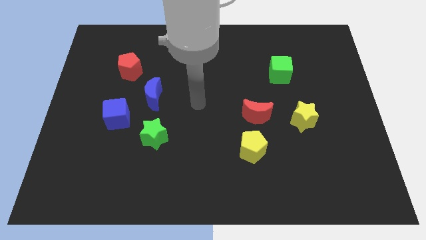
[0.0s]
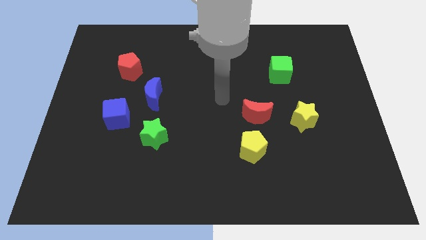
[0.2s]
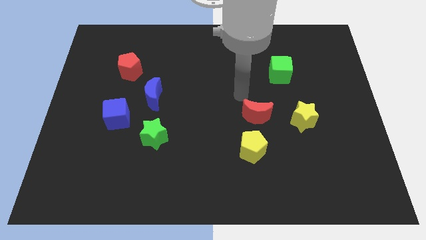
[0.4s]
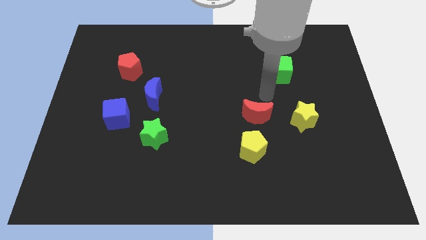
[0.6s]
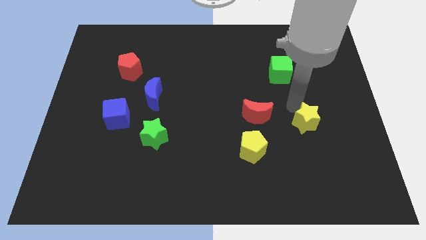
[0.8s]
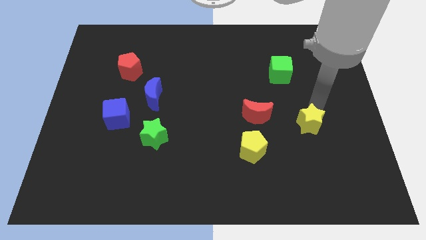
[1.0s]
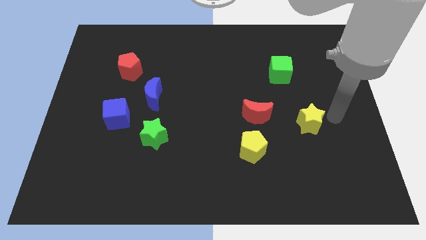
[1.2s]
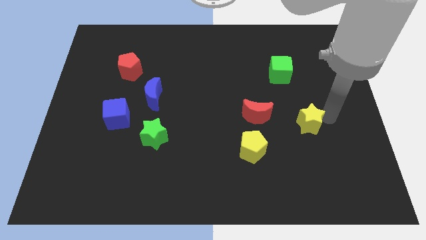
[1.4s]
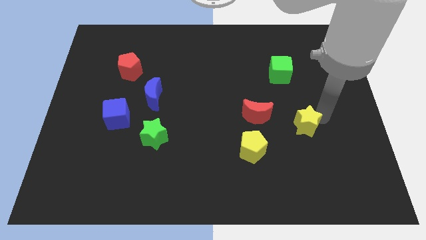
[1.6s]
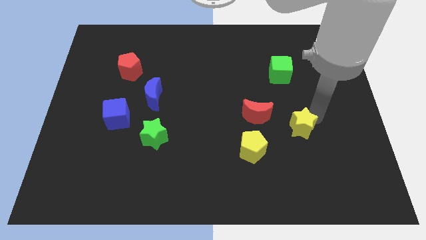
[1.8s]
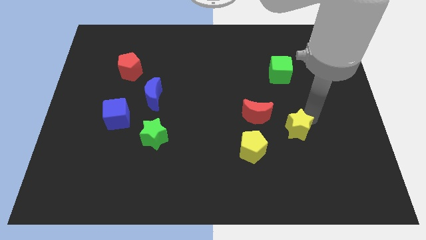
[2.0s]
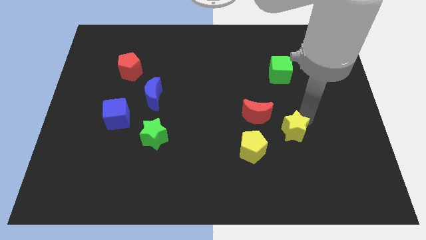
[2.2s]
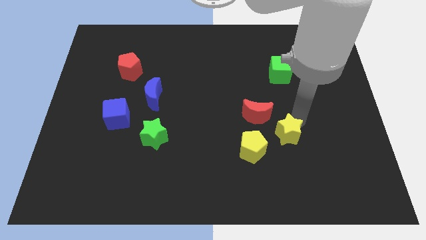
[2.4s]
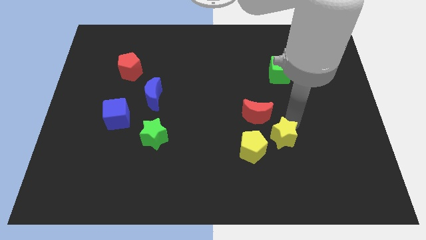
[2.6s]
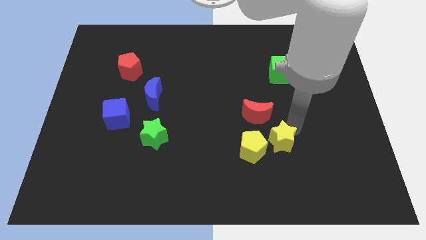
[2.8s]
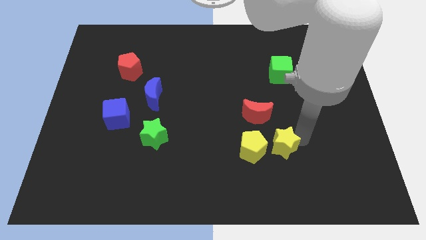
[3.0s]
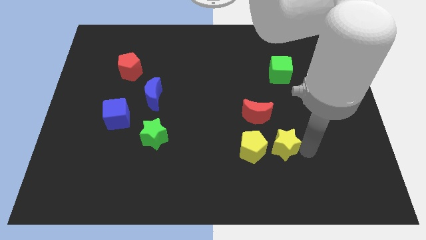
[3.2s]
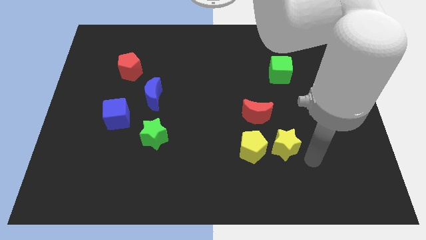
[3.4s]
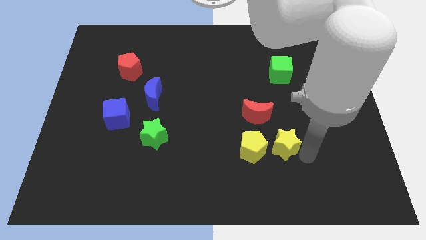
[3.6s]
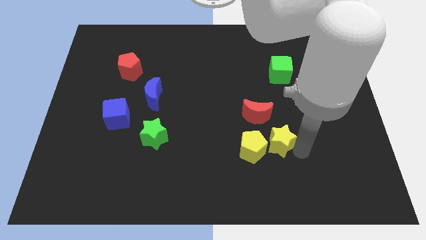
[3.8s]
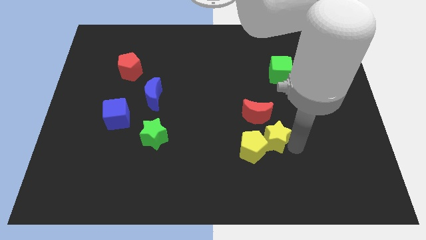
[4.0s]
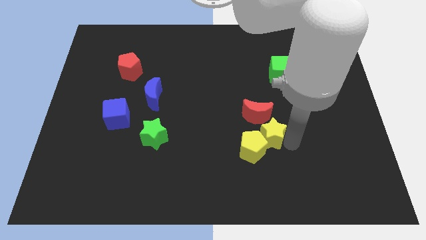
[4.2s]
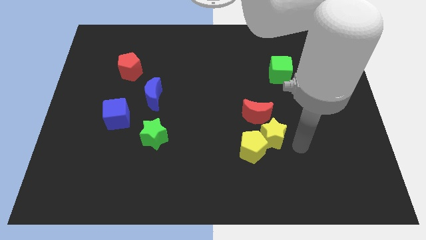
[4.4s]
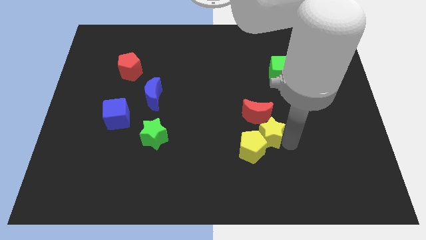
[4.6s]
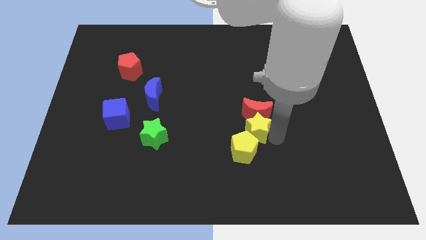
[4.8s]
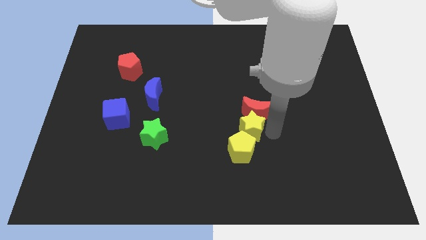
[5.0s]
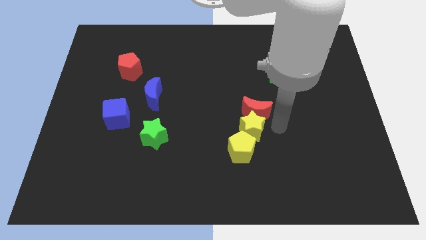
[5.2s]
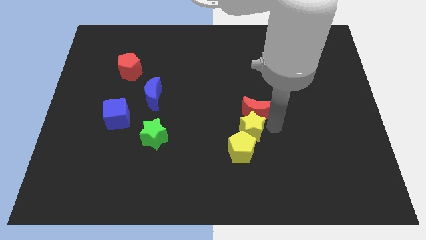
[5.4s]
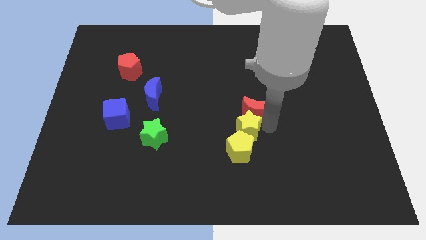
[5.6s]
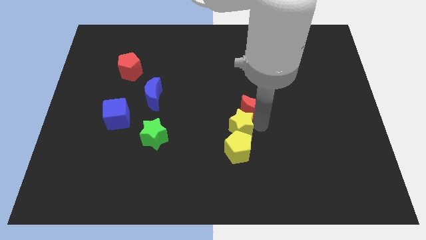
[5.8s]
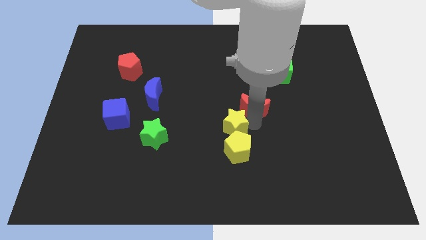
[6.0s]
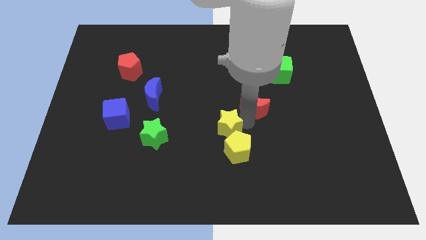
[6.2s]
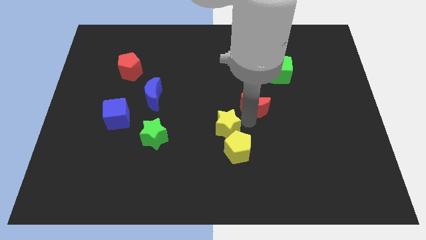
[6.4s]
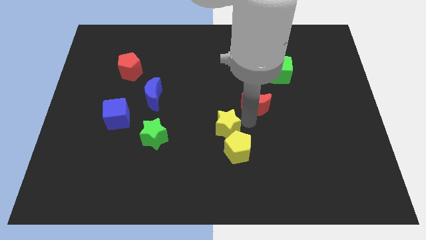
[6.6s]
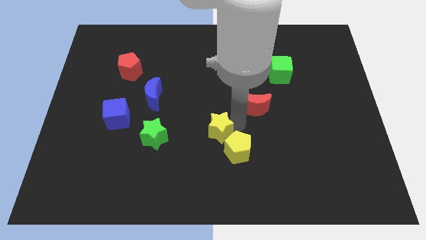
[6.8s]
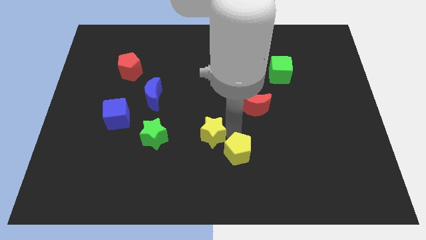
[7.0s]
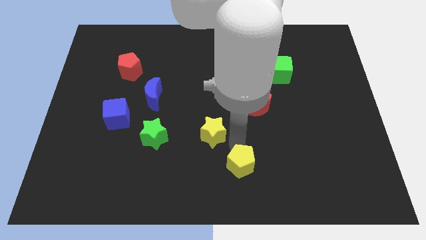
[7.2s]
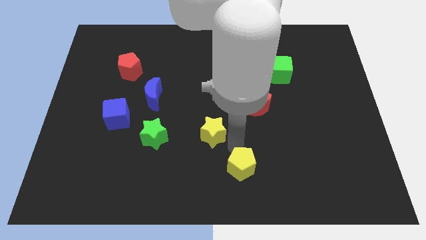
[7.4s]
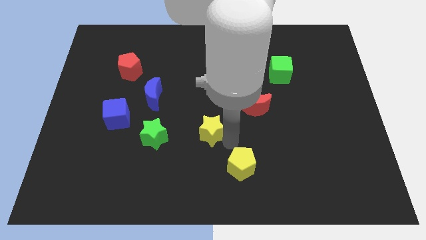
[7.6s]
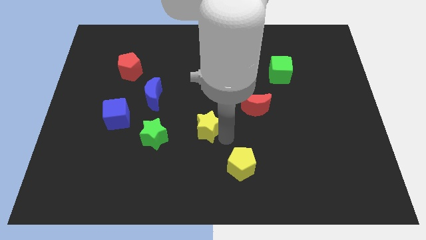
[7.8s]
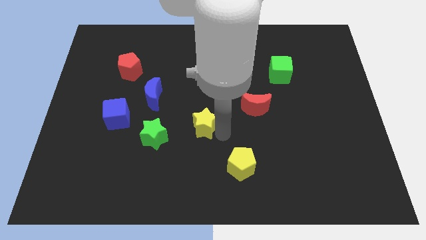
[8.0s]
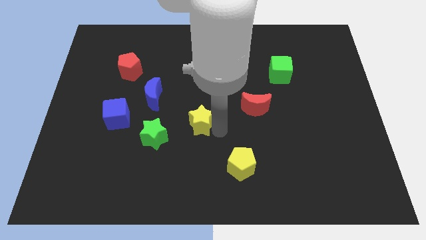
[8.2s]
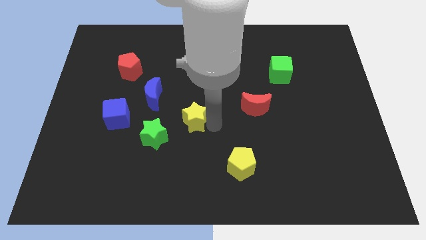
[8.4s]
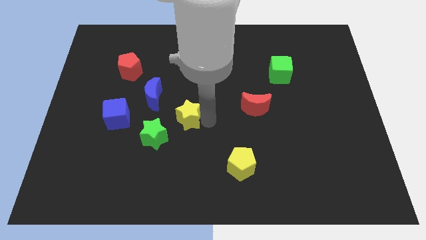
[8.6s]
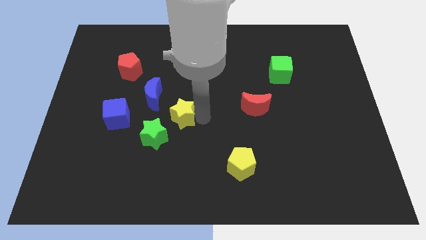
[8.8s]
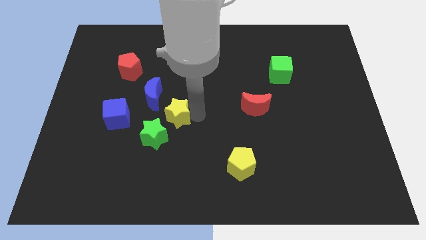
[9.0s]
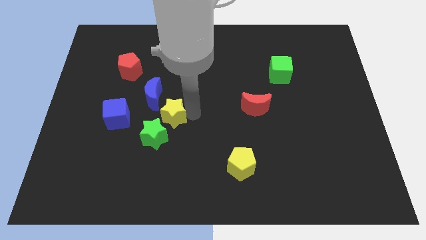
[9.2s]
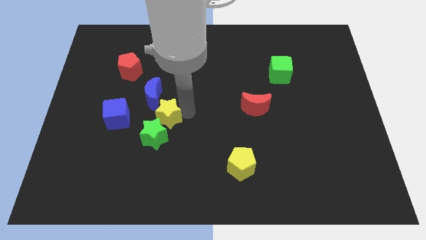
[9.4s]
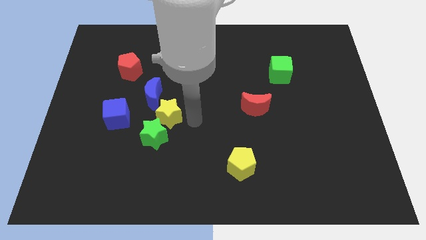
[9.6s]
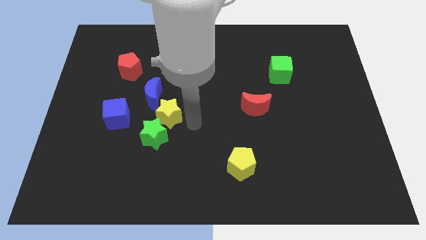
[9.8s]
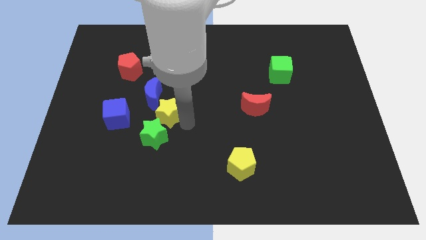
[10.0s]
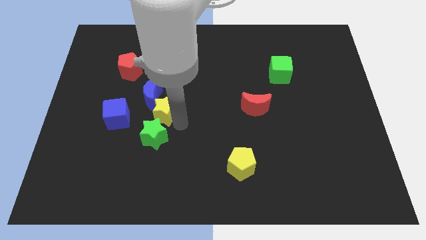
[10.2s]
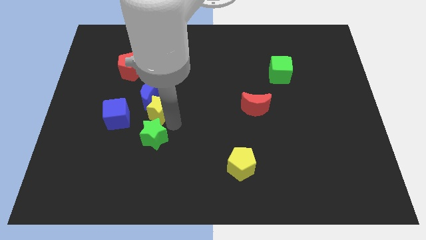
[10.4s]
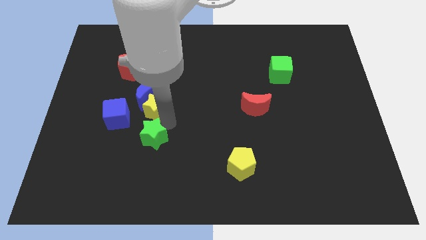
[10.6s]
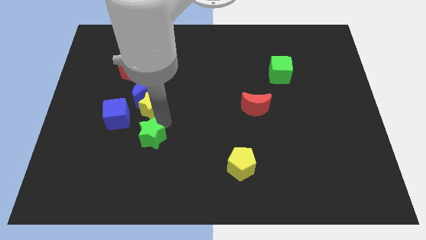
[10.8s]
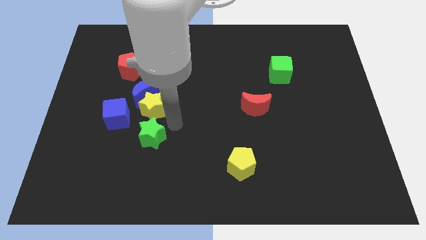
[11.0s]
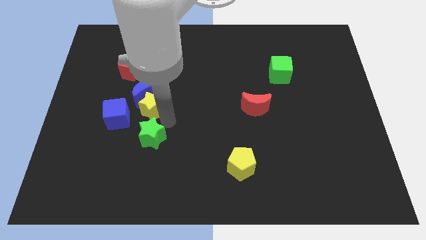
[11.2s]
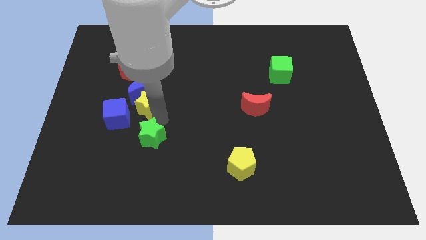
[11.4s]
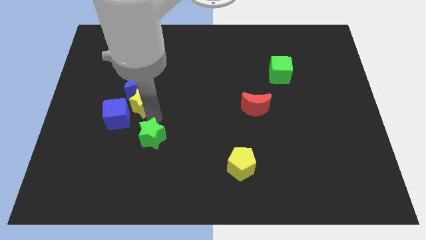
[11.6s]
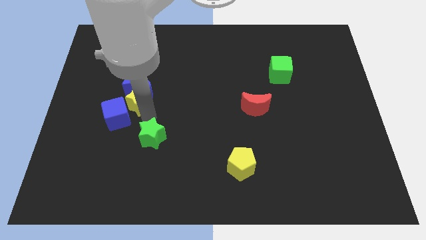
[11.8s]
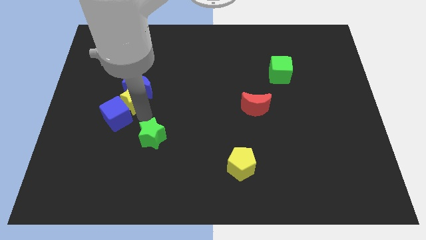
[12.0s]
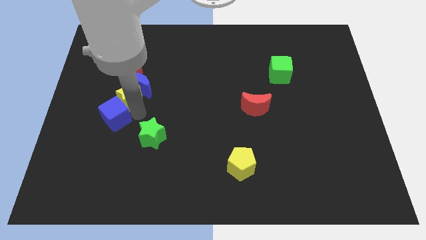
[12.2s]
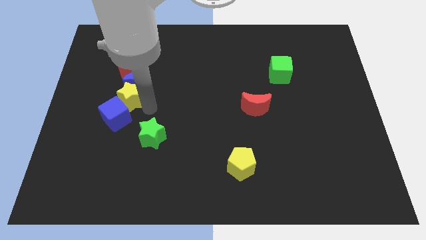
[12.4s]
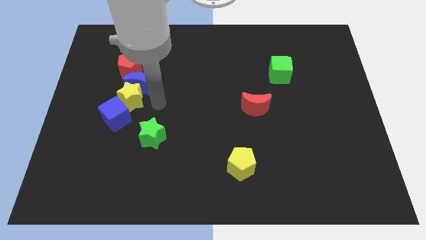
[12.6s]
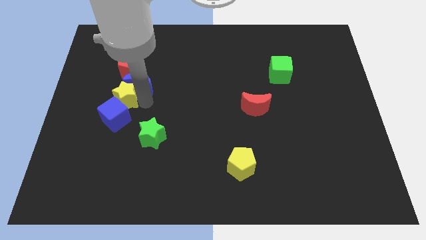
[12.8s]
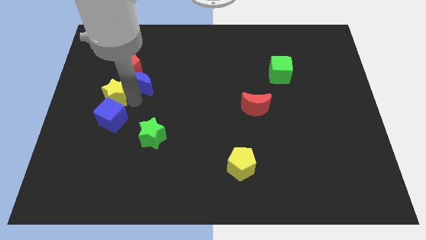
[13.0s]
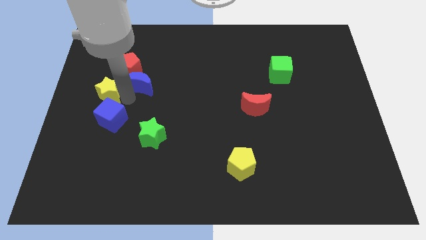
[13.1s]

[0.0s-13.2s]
slide the yellow star to the left side of the board

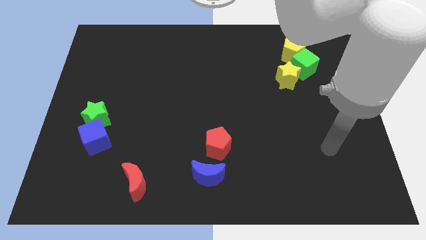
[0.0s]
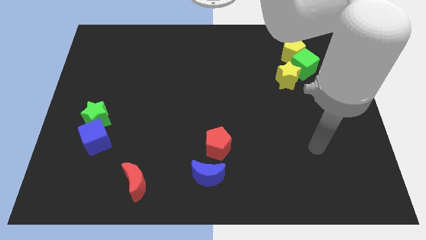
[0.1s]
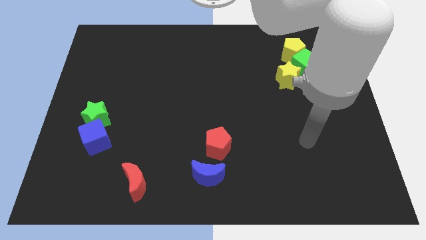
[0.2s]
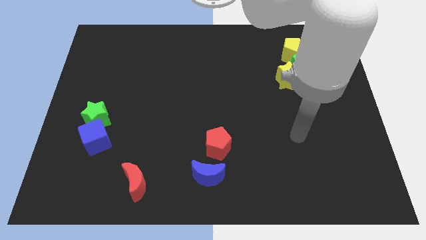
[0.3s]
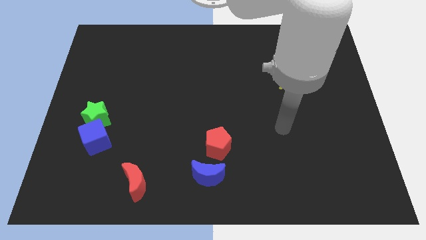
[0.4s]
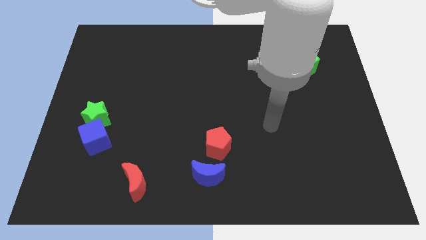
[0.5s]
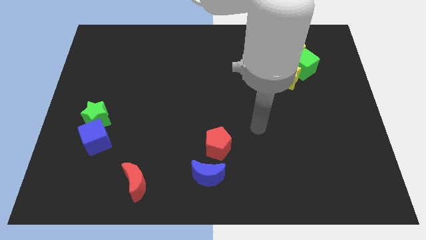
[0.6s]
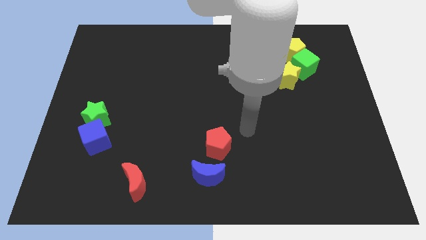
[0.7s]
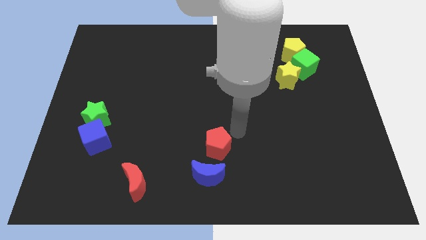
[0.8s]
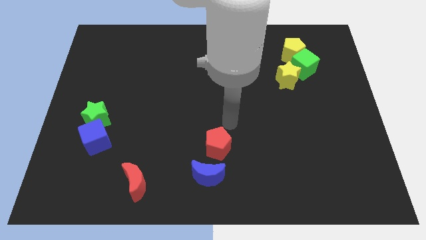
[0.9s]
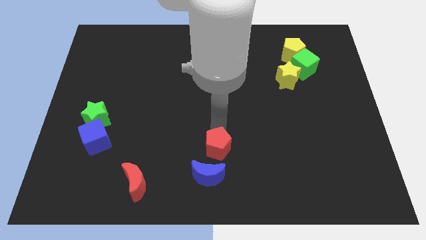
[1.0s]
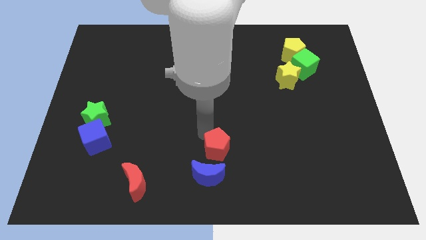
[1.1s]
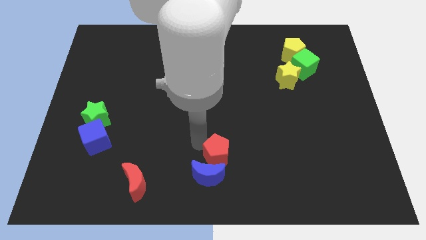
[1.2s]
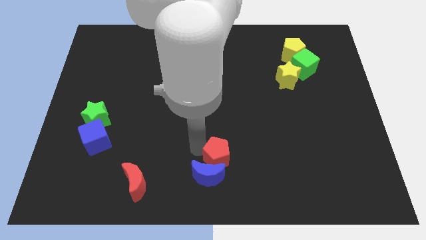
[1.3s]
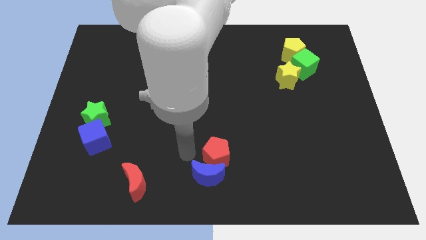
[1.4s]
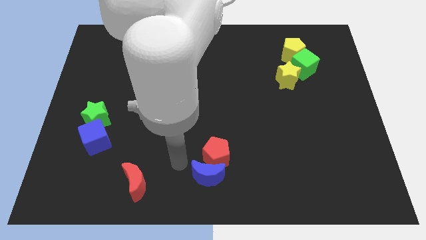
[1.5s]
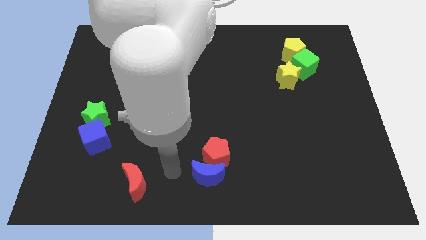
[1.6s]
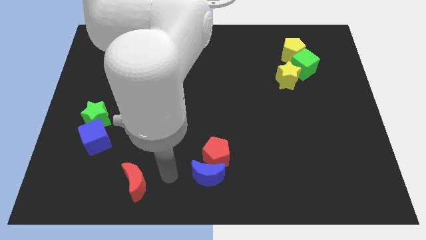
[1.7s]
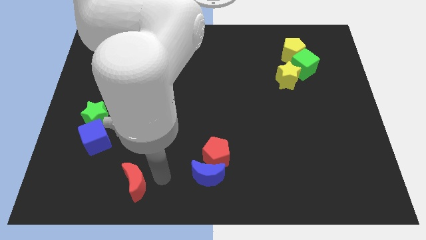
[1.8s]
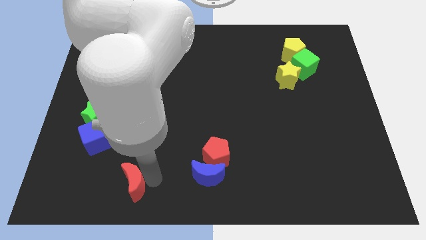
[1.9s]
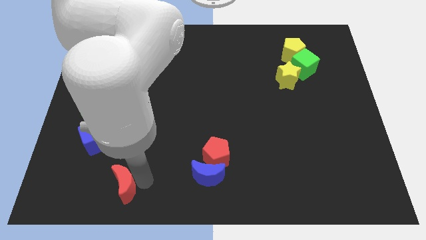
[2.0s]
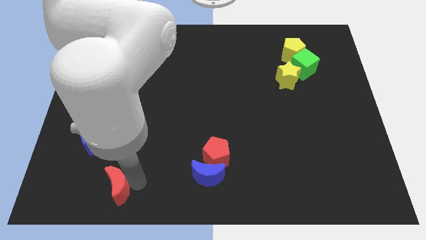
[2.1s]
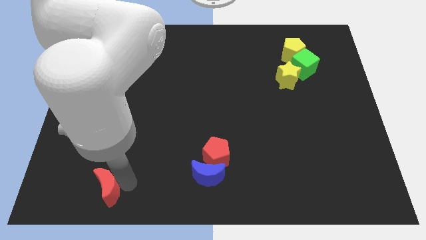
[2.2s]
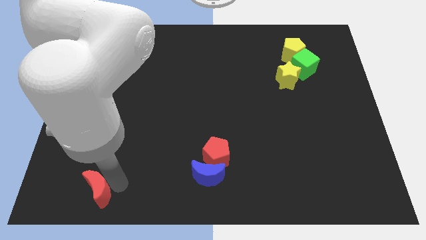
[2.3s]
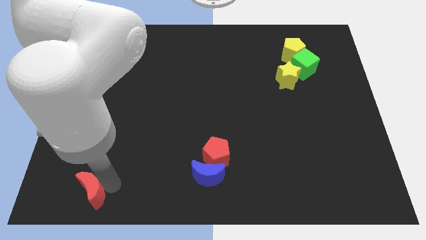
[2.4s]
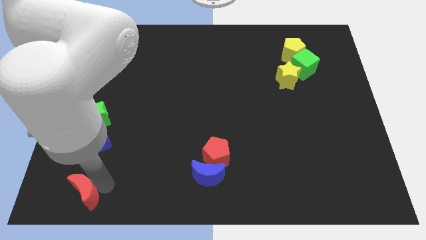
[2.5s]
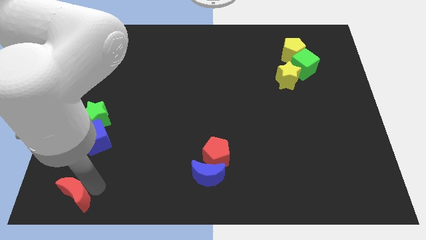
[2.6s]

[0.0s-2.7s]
put the red moon to the lower left corner
